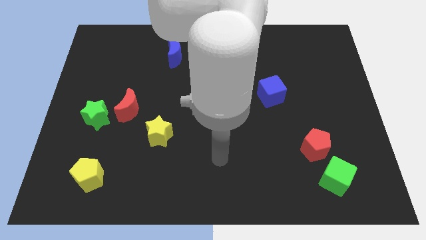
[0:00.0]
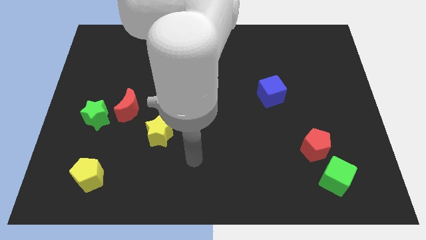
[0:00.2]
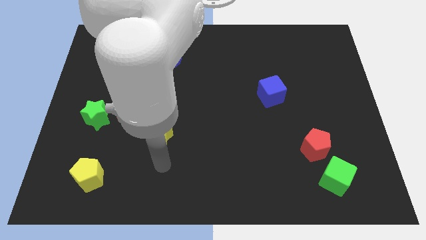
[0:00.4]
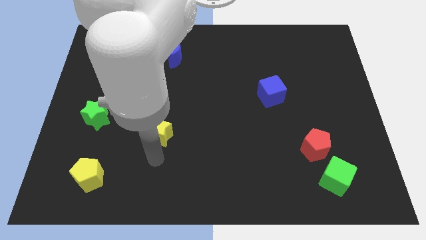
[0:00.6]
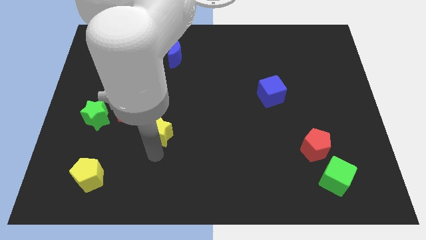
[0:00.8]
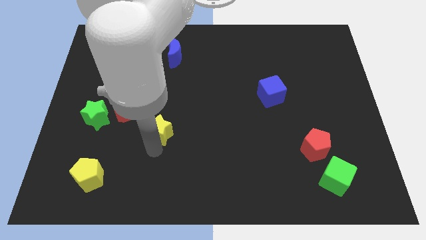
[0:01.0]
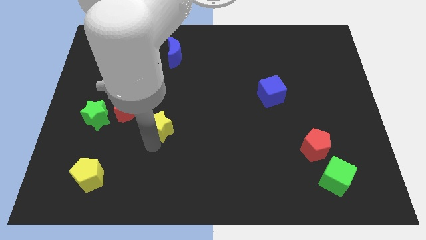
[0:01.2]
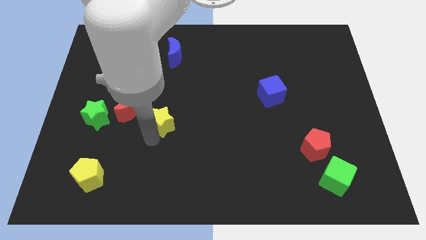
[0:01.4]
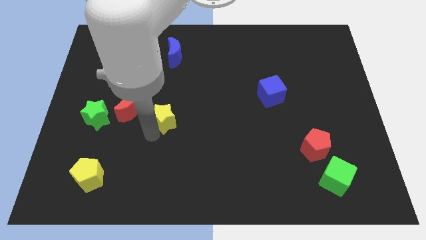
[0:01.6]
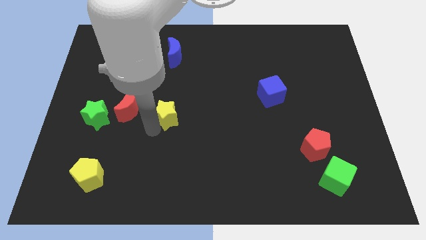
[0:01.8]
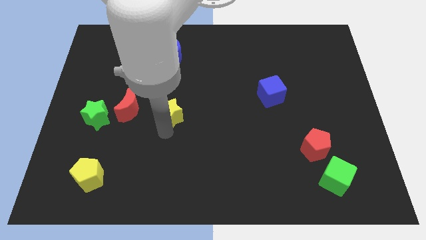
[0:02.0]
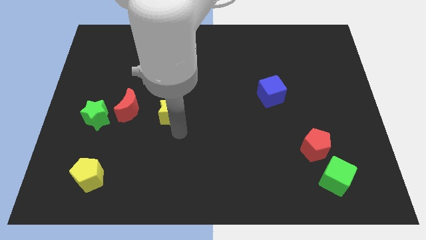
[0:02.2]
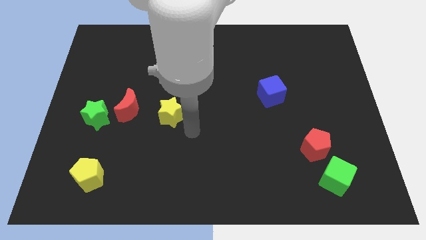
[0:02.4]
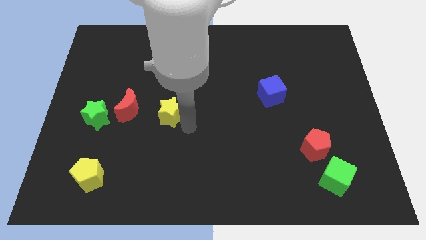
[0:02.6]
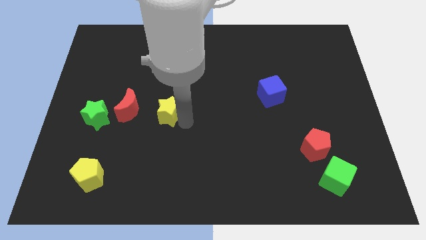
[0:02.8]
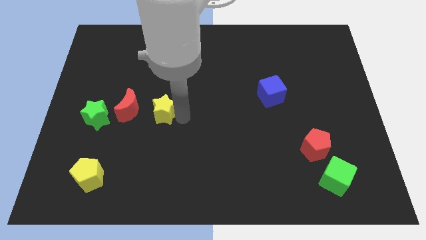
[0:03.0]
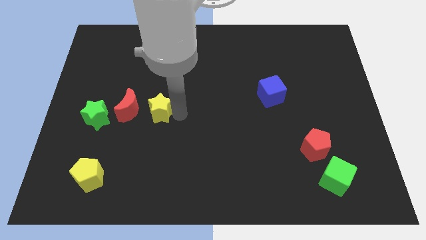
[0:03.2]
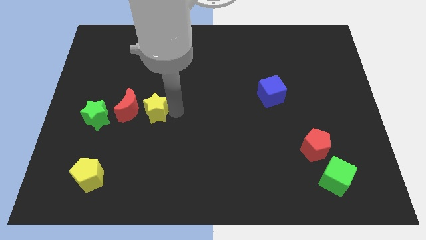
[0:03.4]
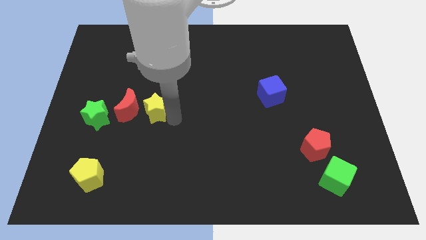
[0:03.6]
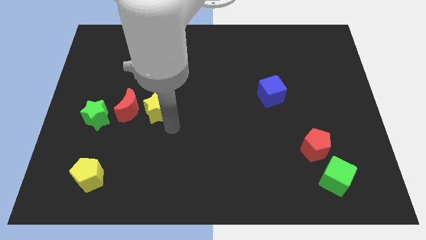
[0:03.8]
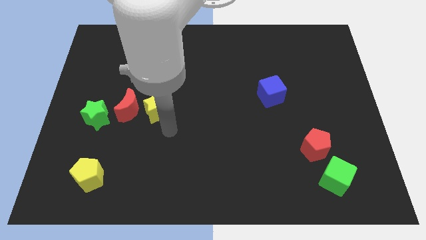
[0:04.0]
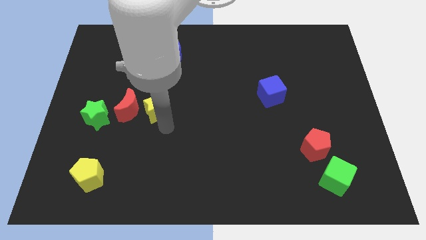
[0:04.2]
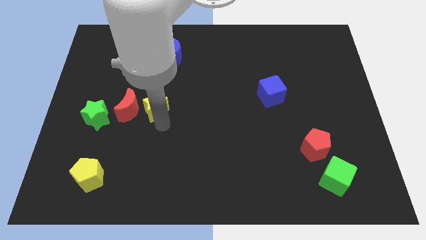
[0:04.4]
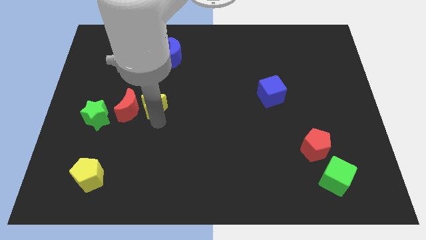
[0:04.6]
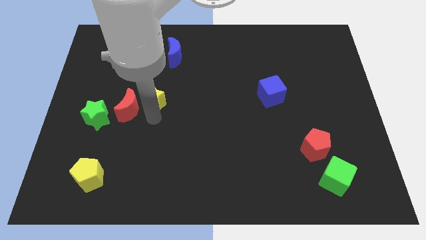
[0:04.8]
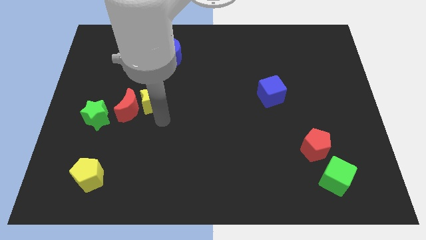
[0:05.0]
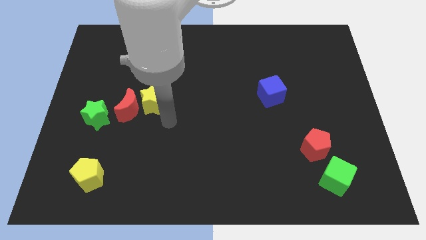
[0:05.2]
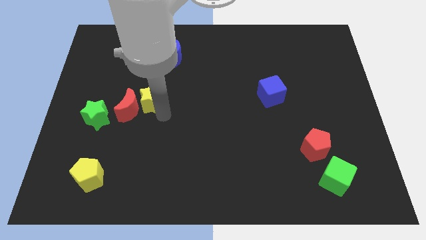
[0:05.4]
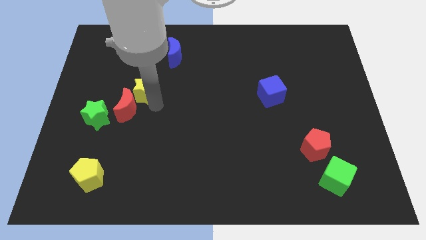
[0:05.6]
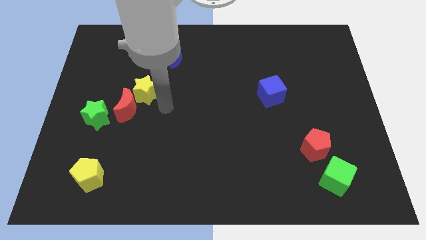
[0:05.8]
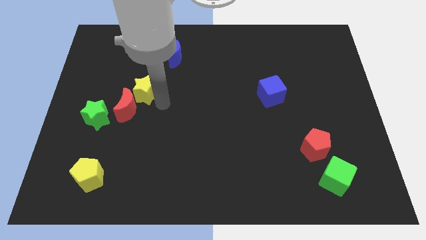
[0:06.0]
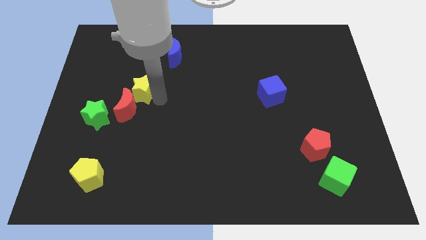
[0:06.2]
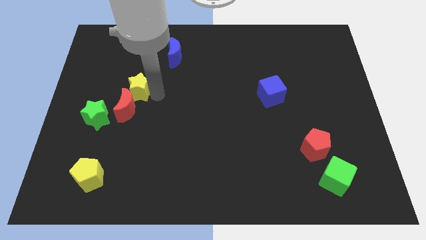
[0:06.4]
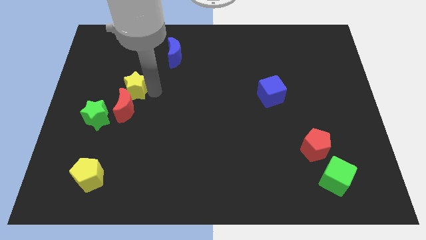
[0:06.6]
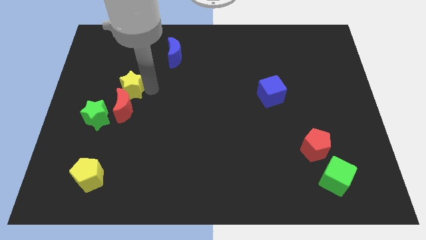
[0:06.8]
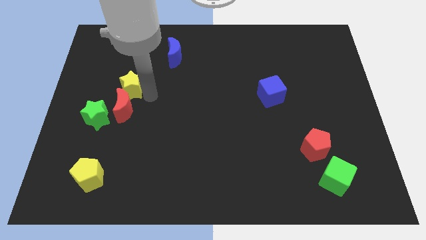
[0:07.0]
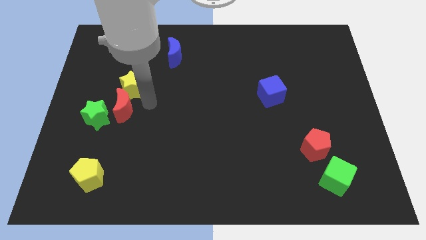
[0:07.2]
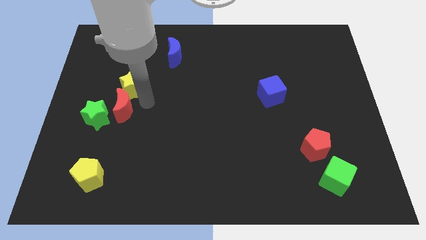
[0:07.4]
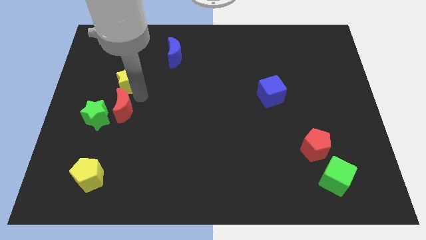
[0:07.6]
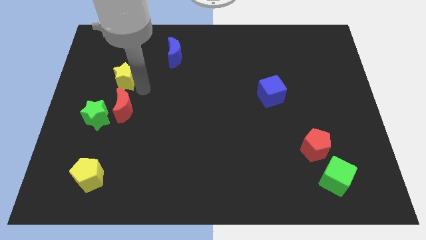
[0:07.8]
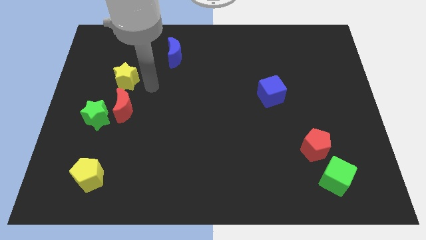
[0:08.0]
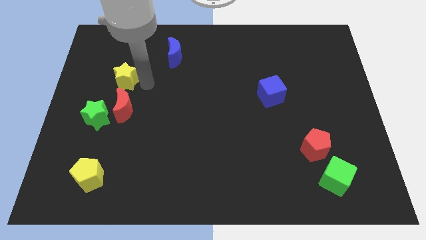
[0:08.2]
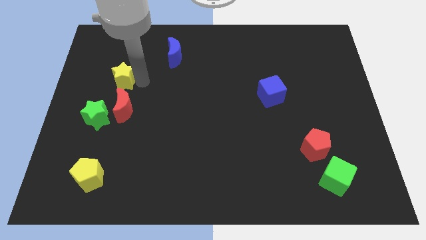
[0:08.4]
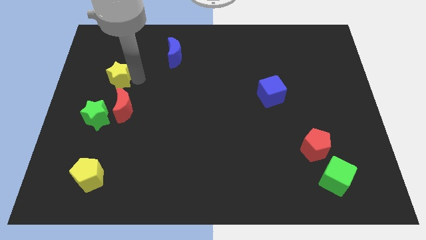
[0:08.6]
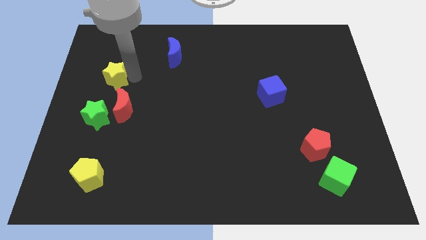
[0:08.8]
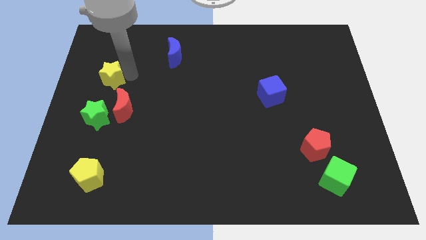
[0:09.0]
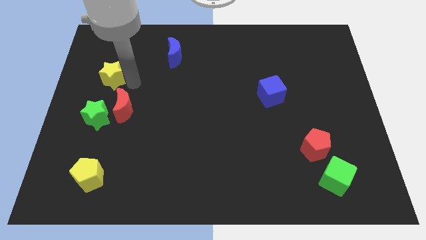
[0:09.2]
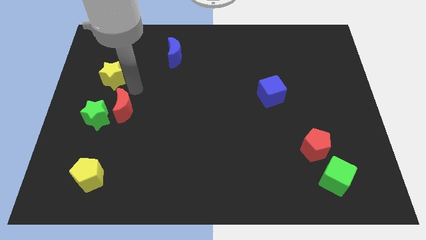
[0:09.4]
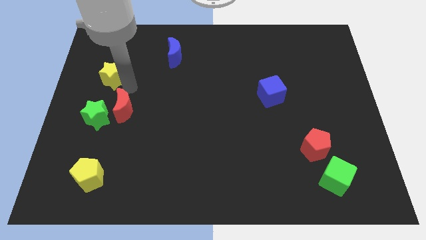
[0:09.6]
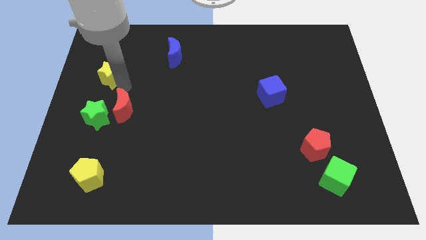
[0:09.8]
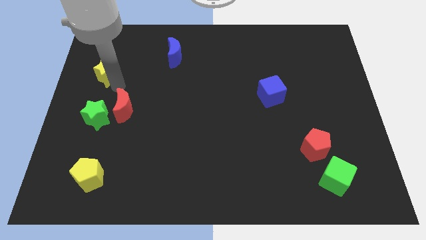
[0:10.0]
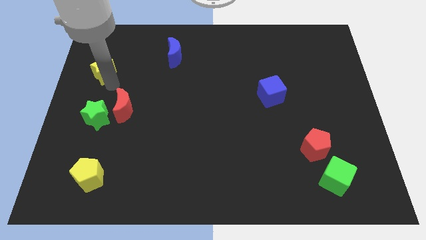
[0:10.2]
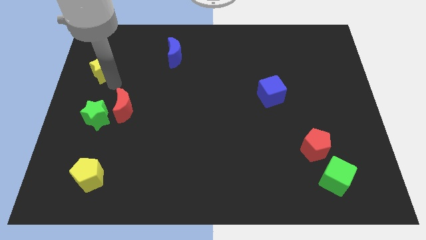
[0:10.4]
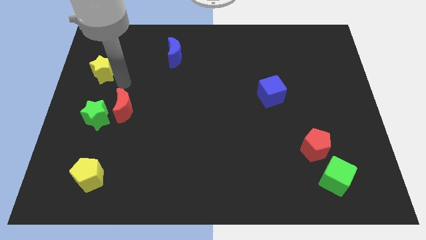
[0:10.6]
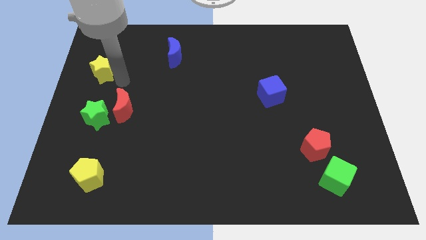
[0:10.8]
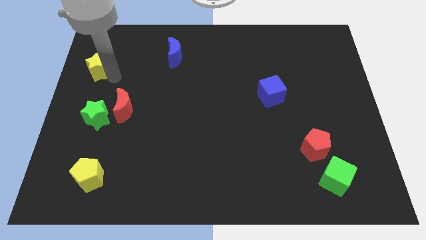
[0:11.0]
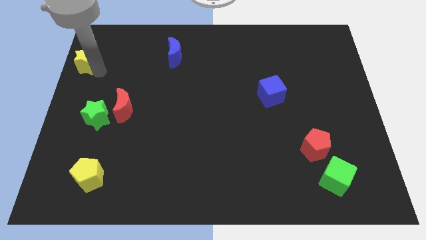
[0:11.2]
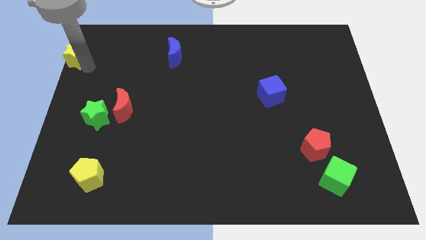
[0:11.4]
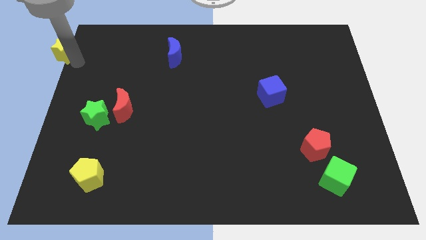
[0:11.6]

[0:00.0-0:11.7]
slide the yellow star to the top left

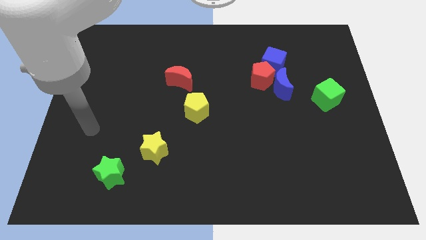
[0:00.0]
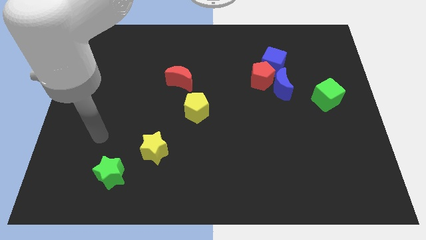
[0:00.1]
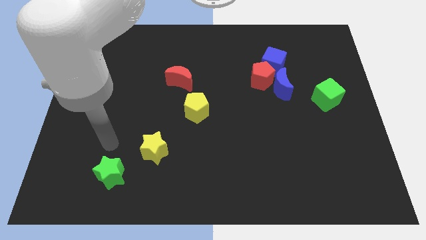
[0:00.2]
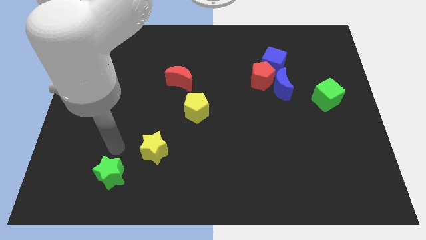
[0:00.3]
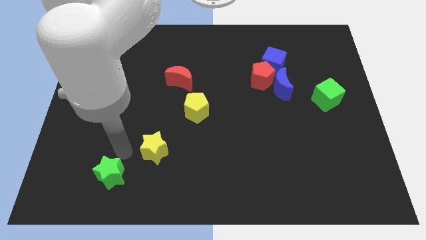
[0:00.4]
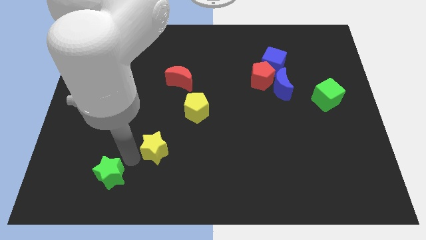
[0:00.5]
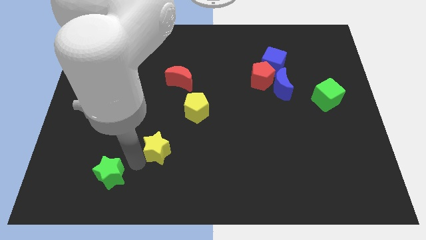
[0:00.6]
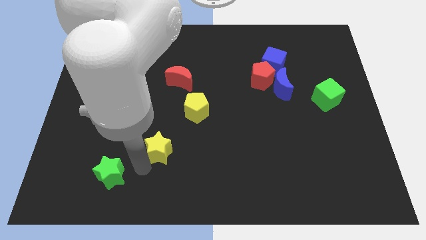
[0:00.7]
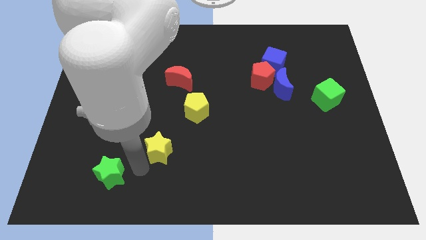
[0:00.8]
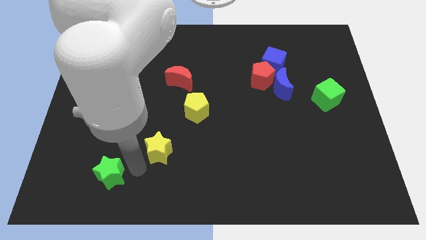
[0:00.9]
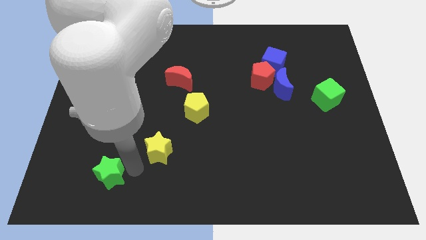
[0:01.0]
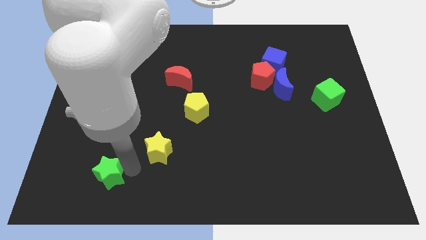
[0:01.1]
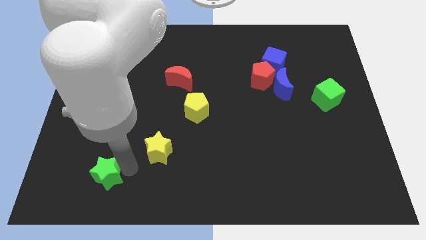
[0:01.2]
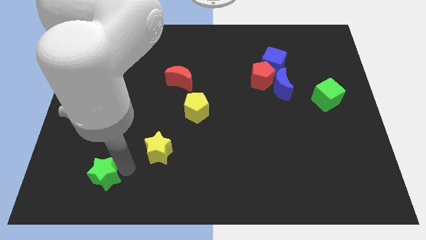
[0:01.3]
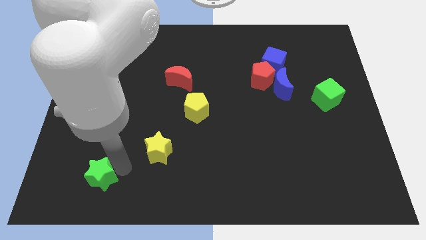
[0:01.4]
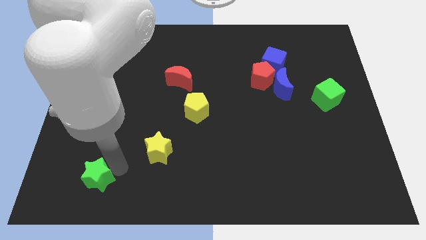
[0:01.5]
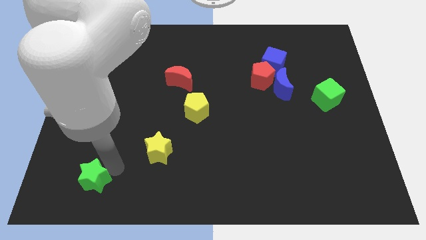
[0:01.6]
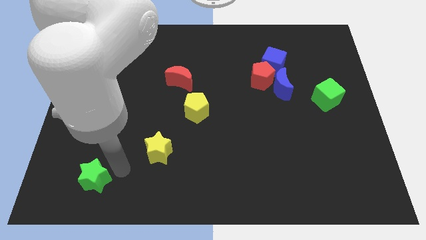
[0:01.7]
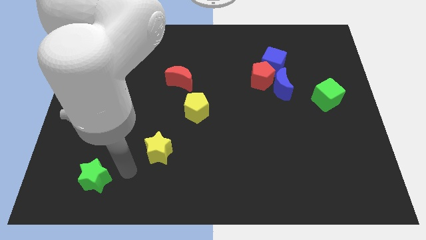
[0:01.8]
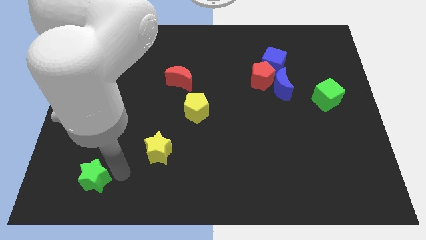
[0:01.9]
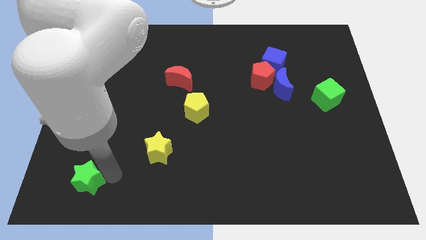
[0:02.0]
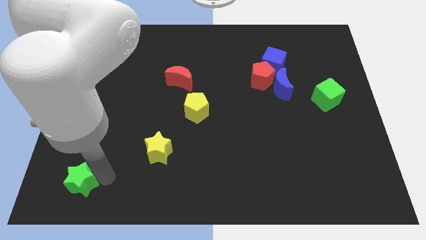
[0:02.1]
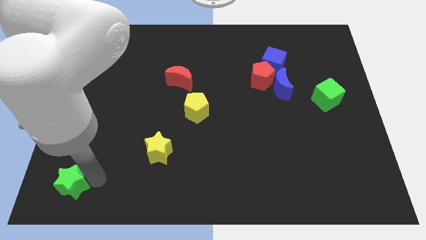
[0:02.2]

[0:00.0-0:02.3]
slide the green star to the bottom left corner
